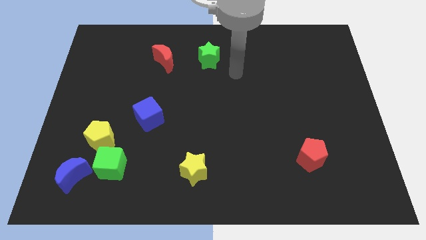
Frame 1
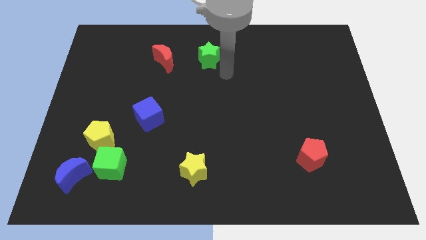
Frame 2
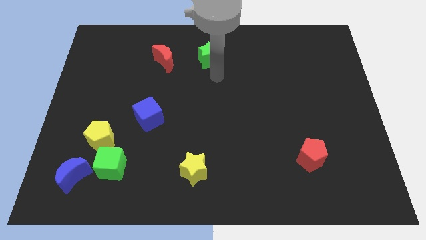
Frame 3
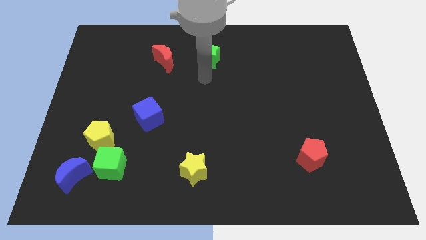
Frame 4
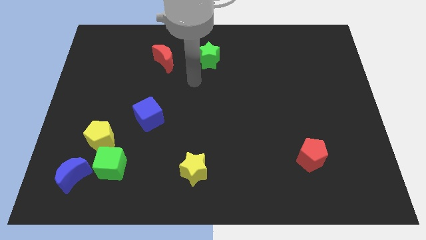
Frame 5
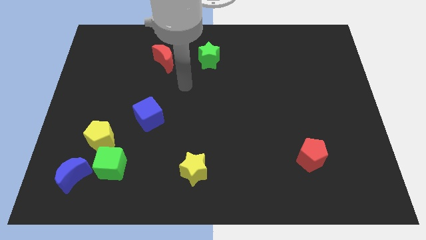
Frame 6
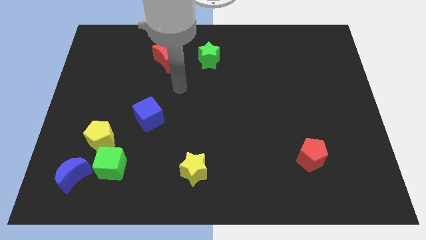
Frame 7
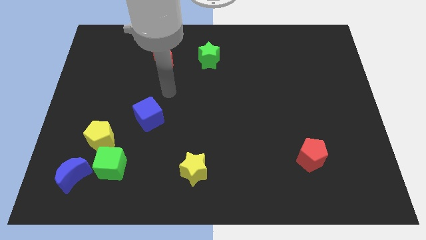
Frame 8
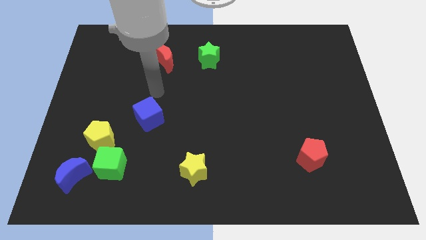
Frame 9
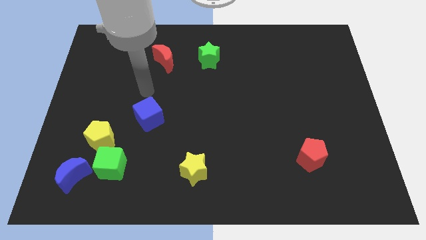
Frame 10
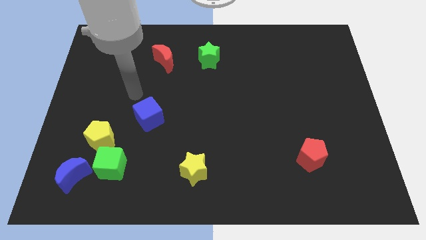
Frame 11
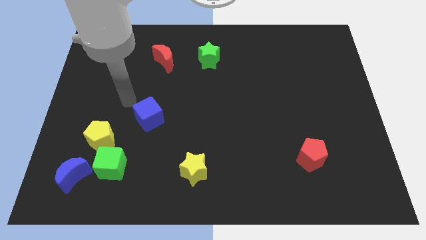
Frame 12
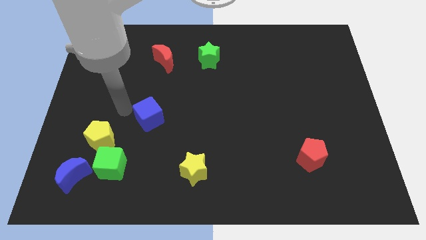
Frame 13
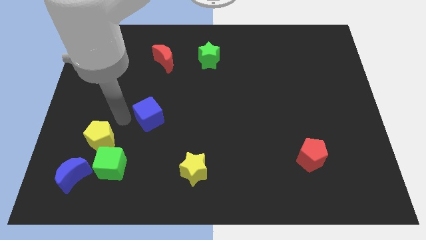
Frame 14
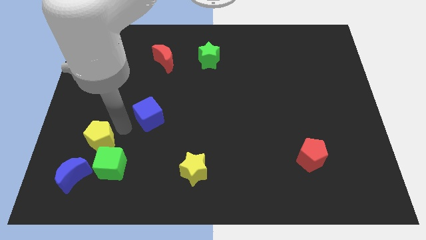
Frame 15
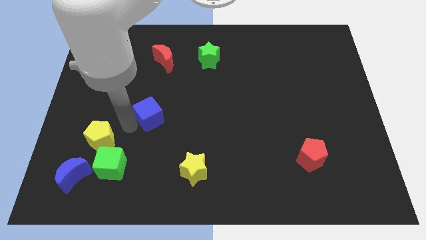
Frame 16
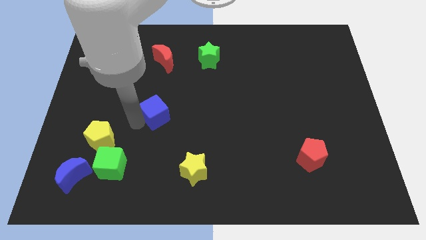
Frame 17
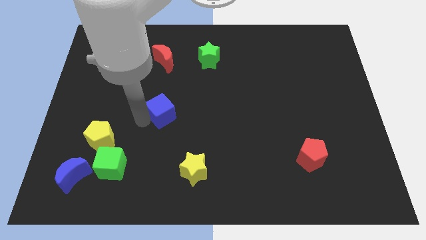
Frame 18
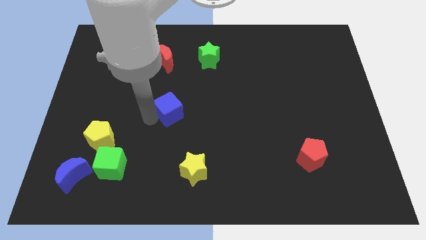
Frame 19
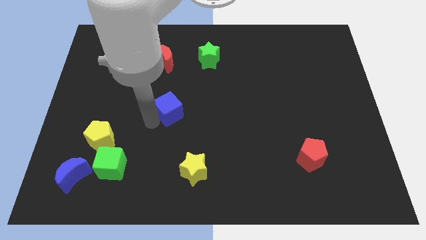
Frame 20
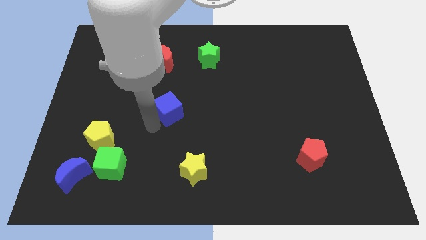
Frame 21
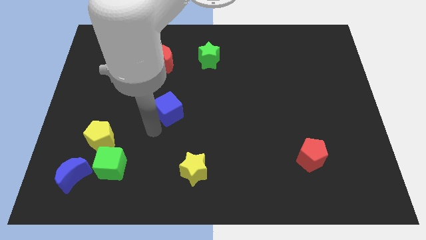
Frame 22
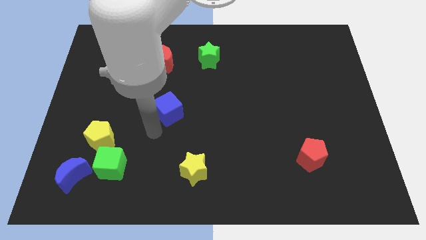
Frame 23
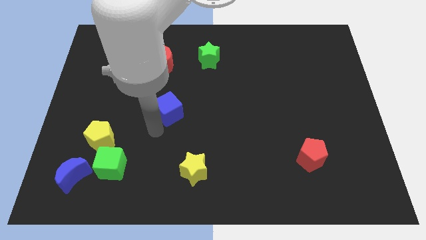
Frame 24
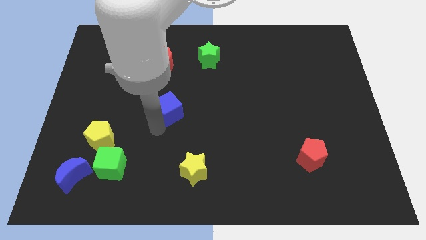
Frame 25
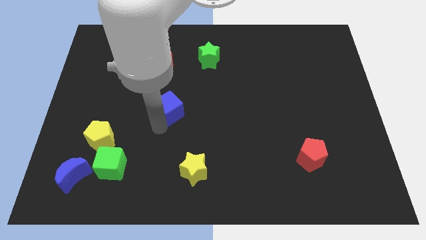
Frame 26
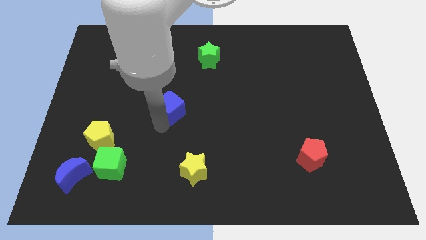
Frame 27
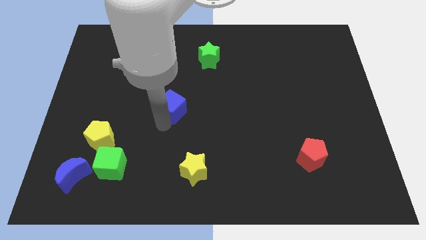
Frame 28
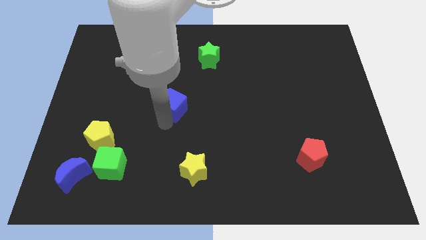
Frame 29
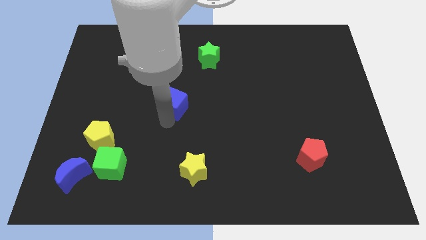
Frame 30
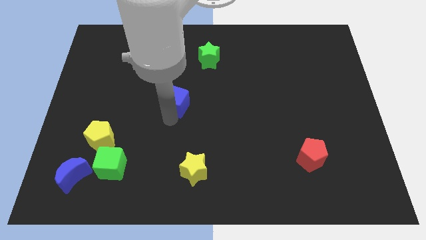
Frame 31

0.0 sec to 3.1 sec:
slightly slide the blue cube up and right

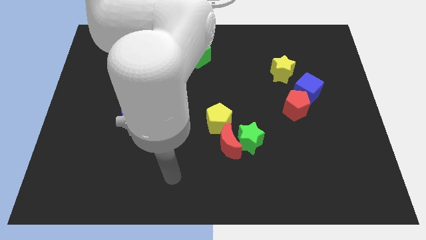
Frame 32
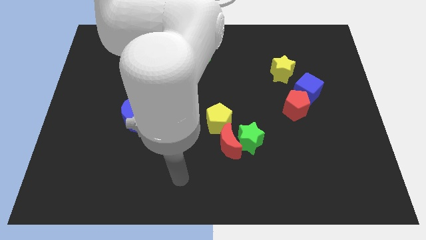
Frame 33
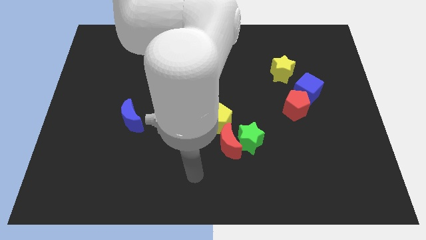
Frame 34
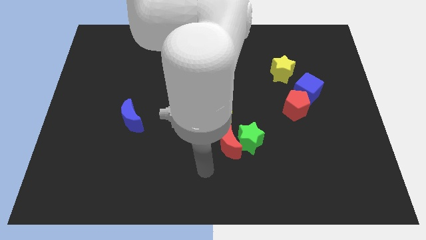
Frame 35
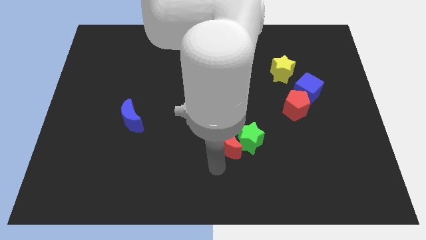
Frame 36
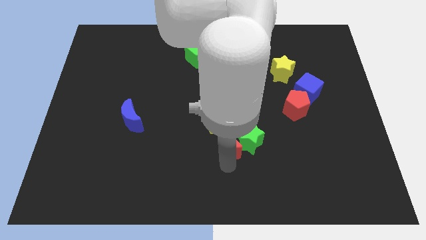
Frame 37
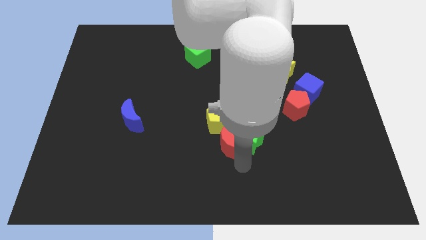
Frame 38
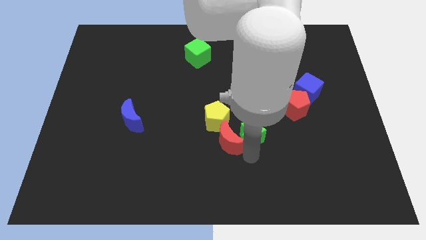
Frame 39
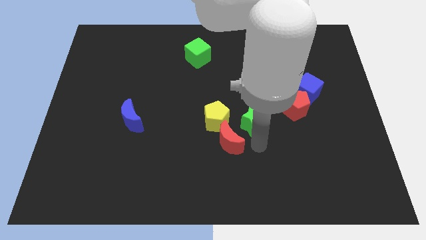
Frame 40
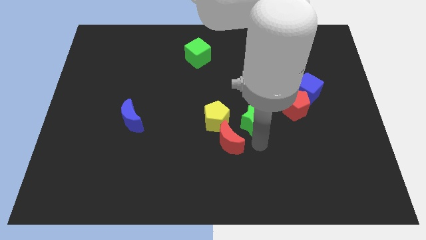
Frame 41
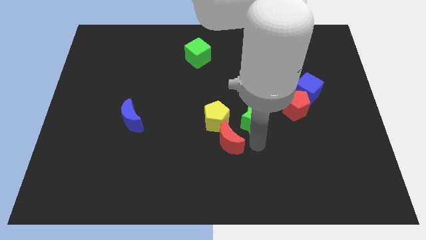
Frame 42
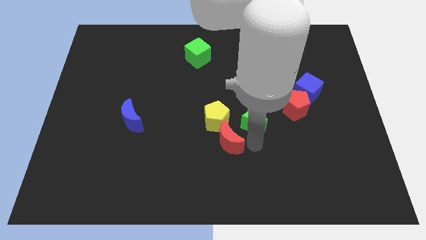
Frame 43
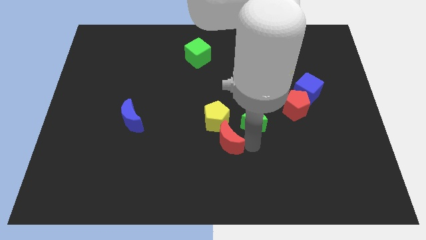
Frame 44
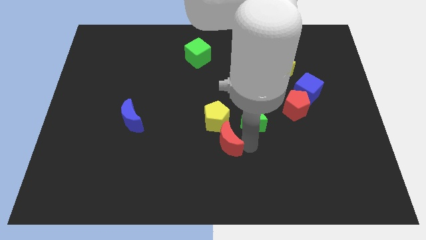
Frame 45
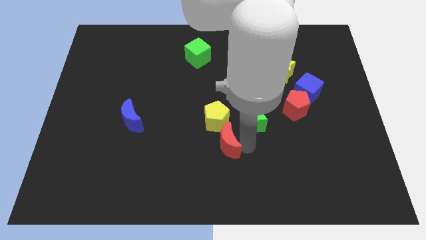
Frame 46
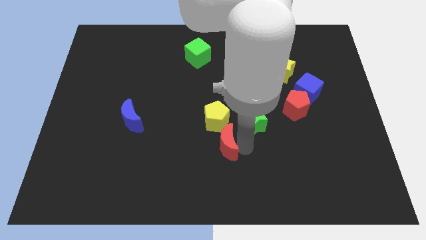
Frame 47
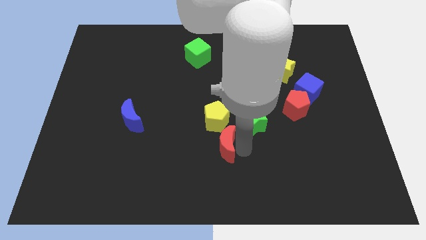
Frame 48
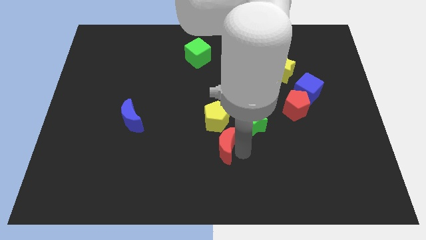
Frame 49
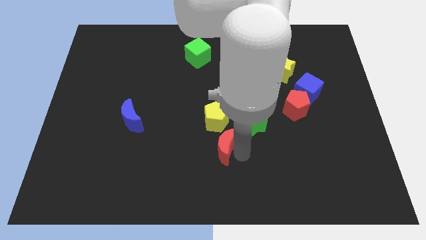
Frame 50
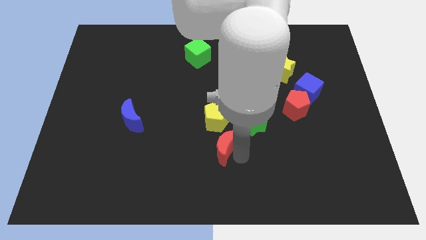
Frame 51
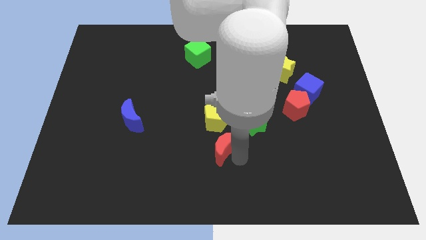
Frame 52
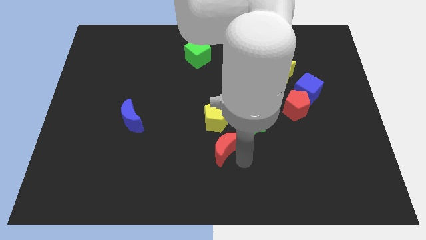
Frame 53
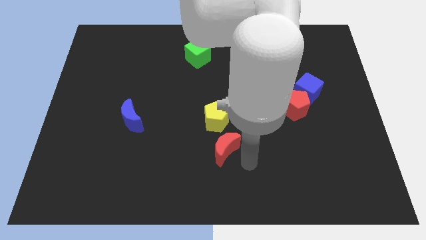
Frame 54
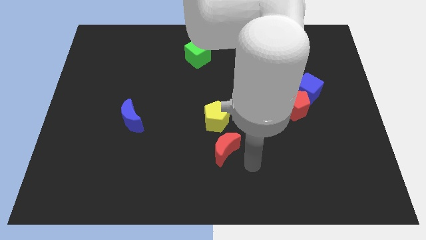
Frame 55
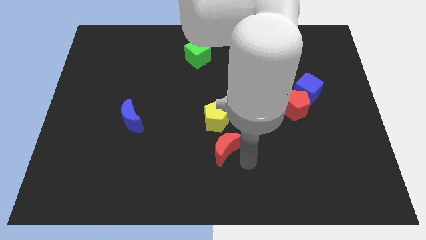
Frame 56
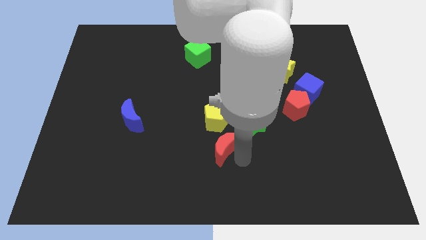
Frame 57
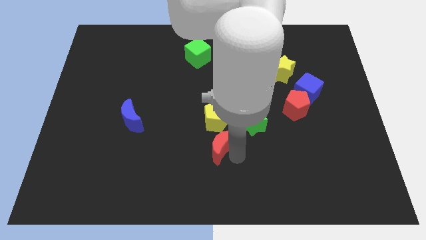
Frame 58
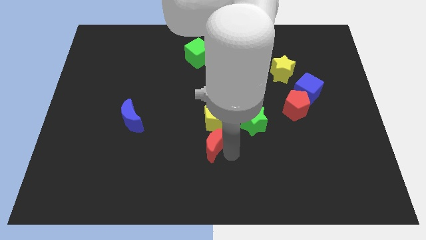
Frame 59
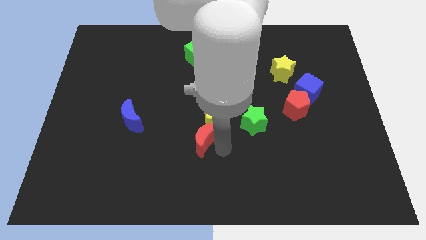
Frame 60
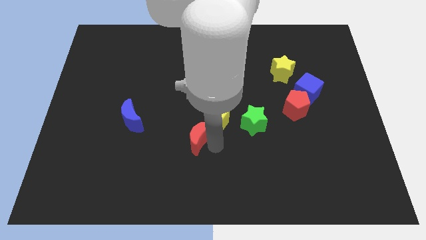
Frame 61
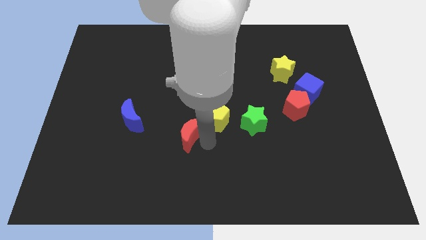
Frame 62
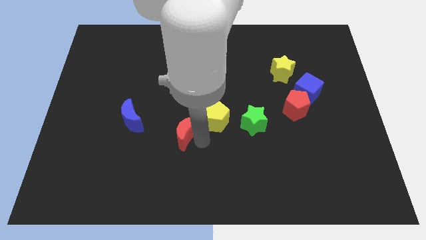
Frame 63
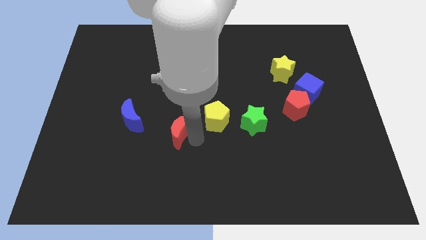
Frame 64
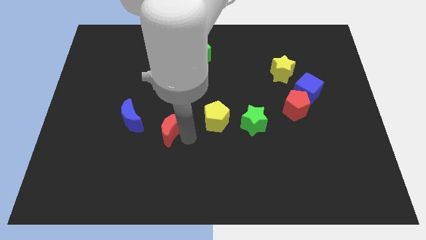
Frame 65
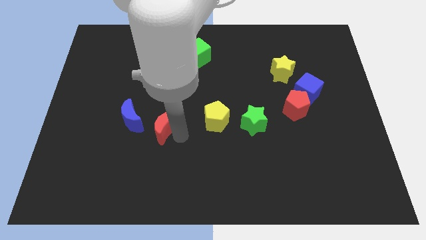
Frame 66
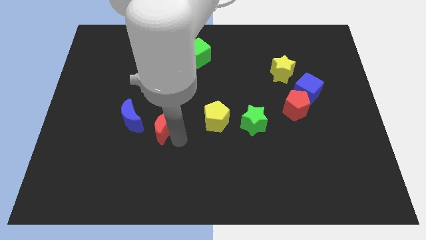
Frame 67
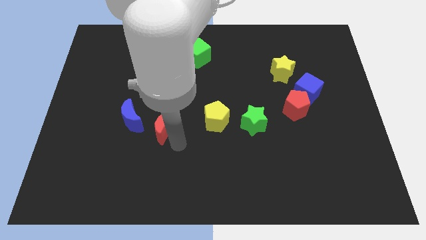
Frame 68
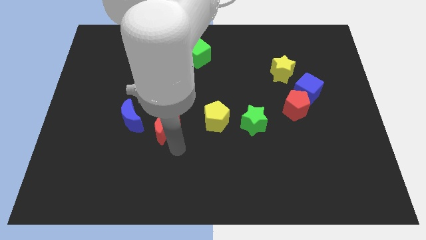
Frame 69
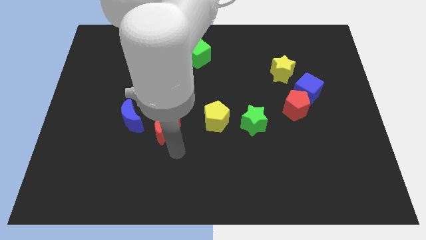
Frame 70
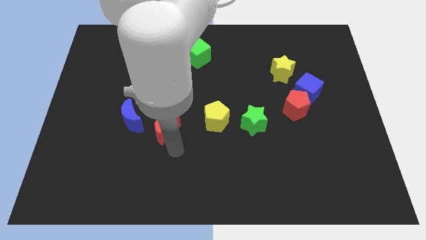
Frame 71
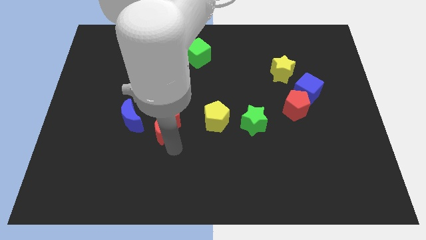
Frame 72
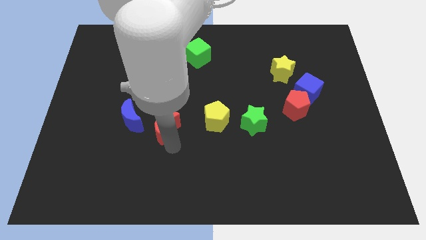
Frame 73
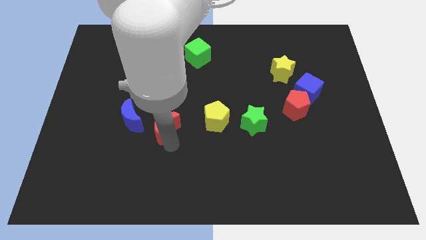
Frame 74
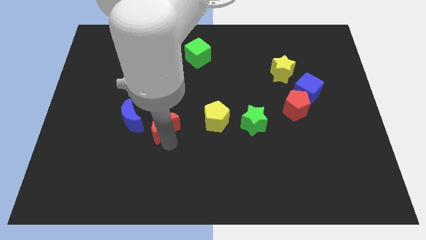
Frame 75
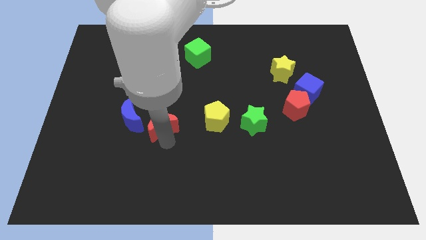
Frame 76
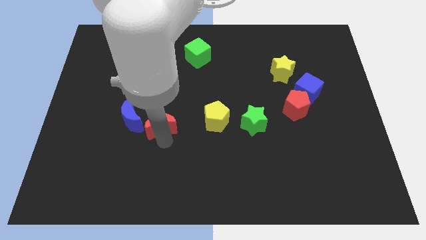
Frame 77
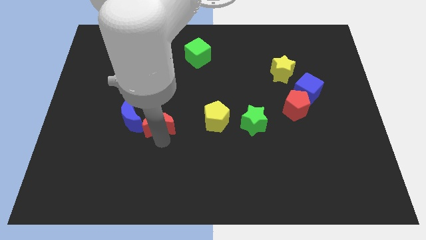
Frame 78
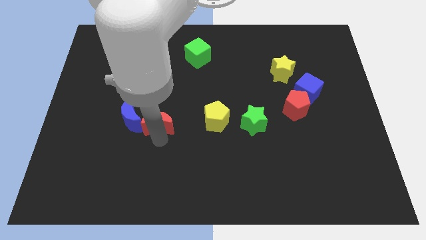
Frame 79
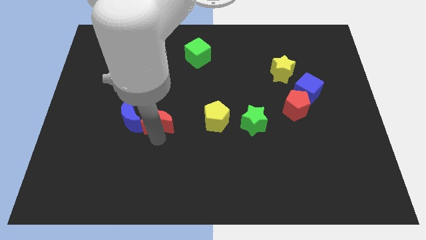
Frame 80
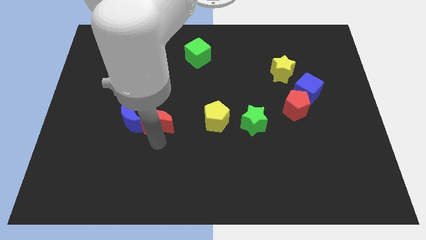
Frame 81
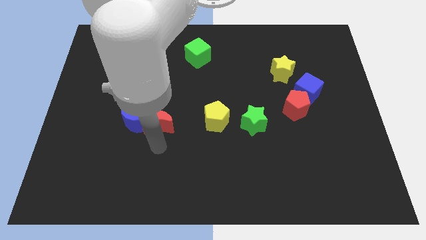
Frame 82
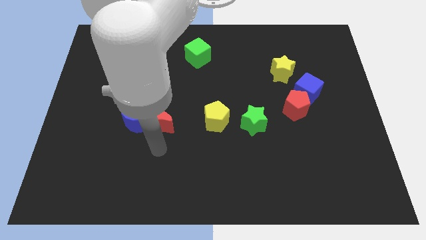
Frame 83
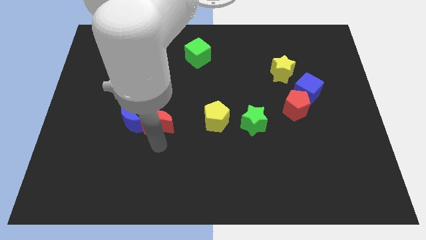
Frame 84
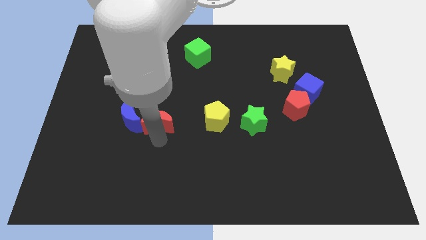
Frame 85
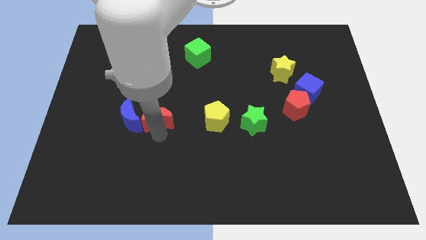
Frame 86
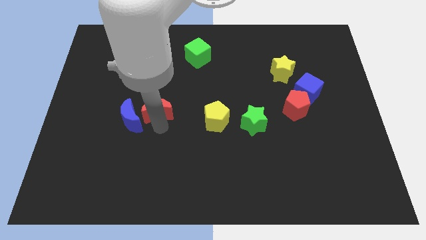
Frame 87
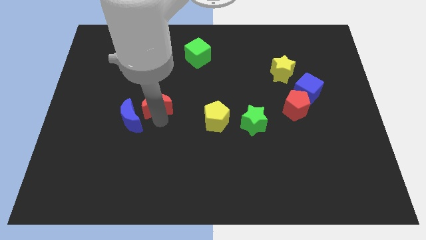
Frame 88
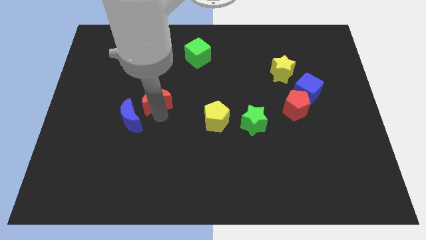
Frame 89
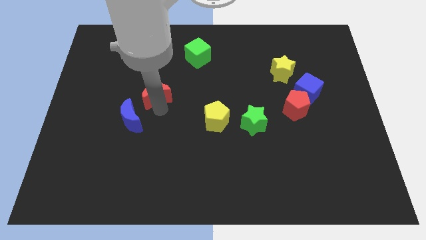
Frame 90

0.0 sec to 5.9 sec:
move the red moon upwards and then left
